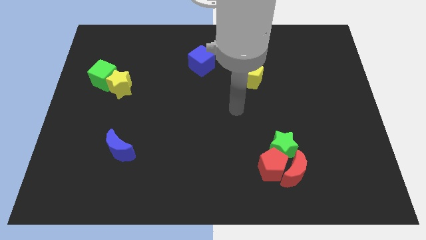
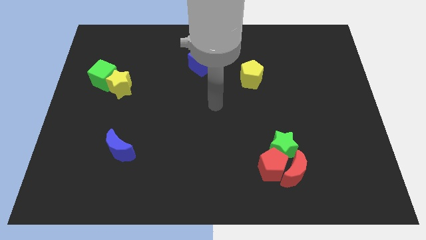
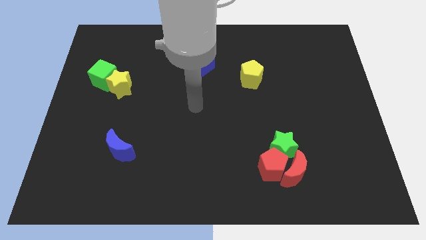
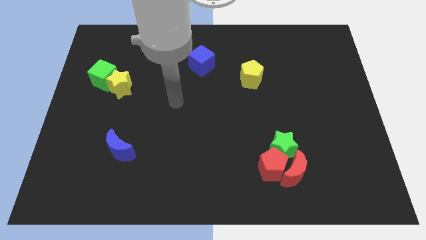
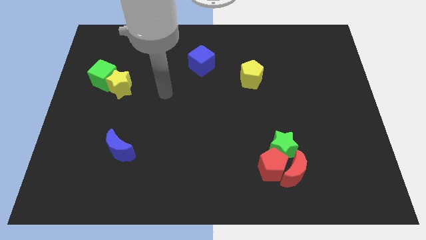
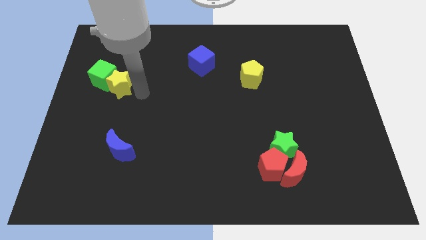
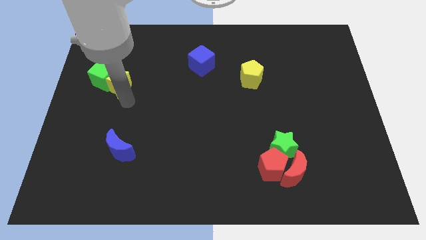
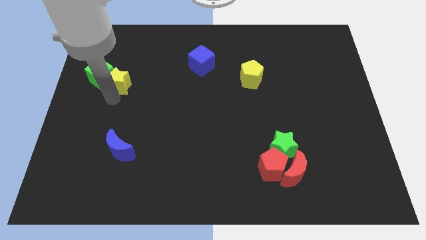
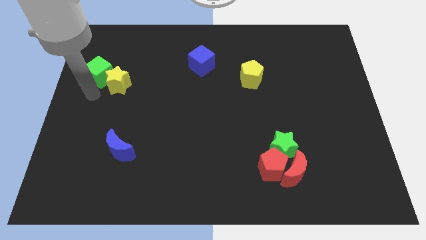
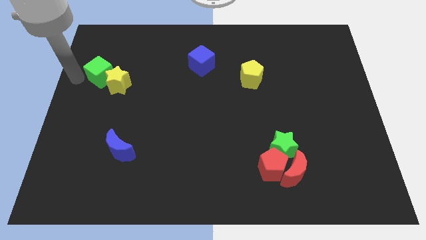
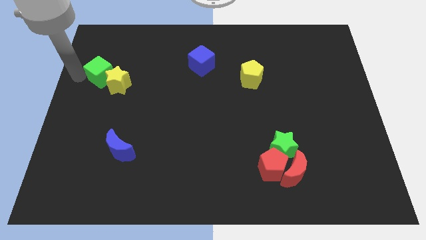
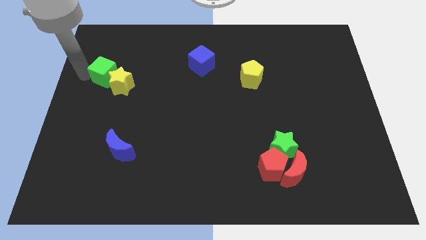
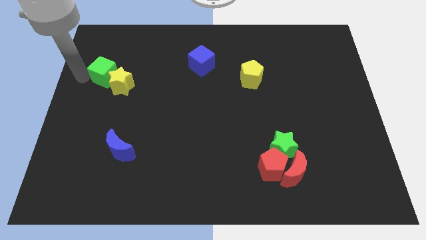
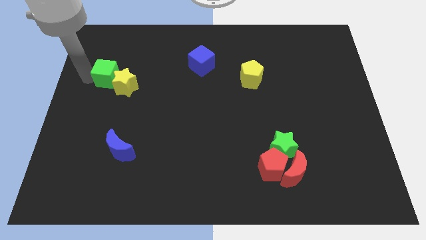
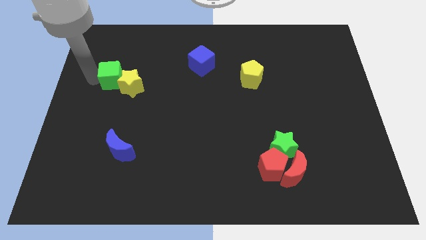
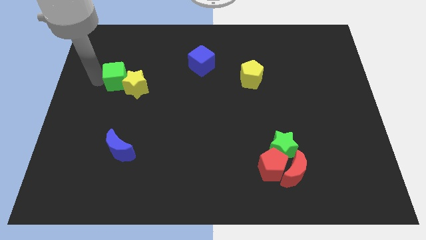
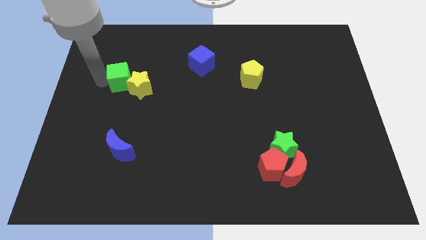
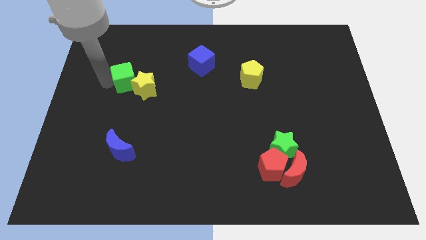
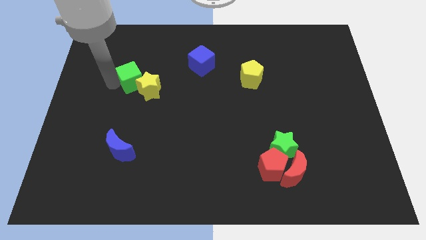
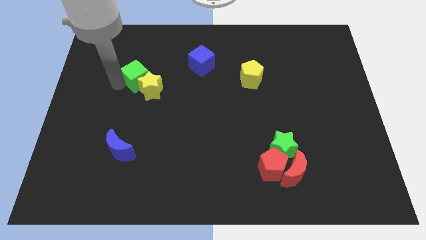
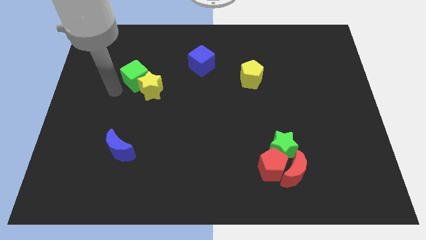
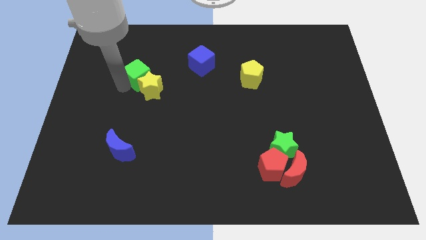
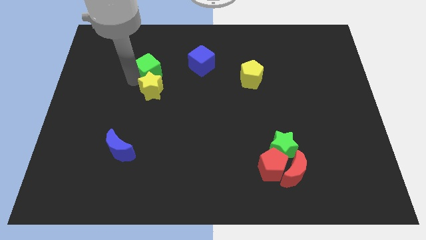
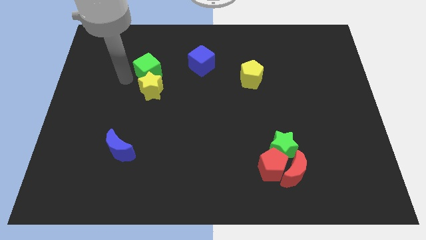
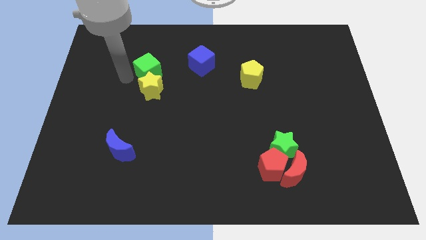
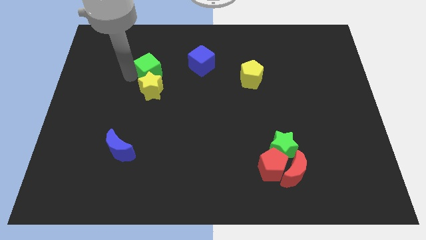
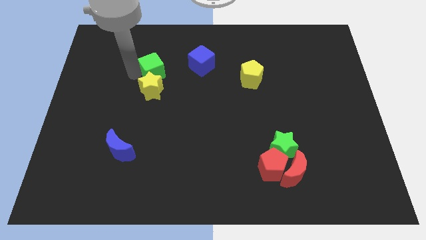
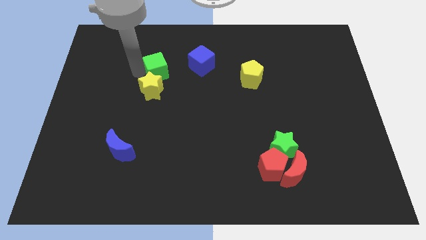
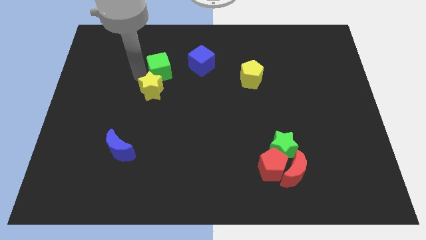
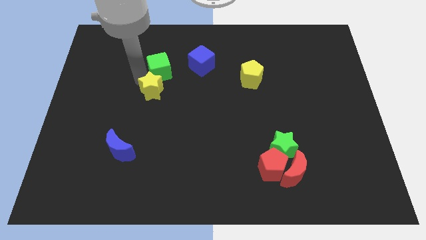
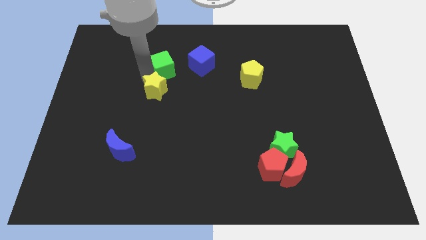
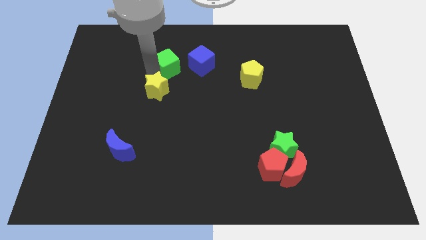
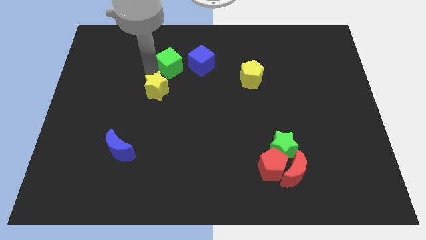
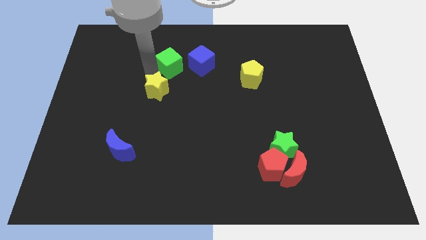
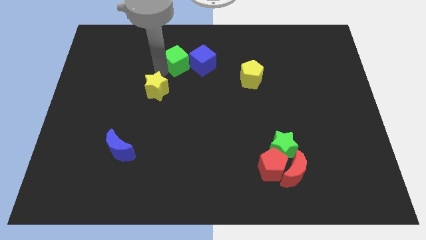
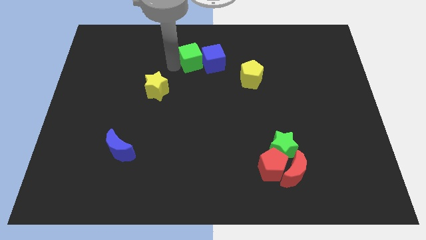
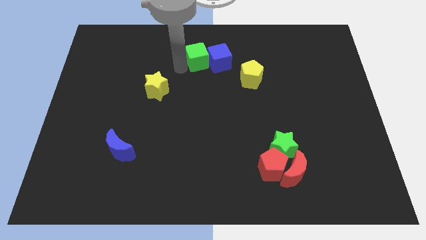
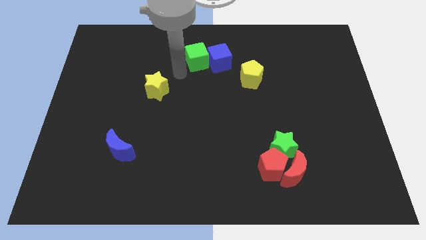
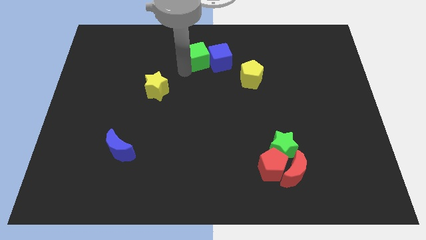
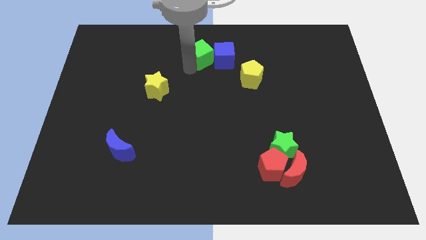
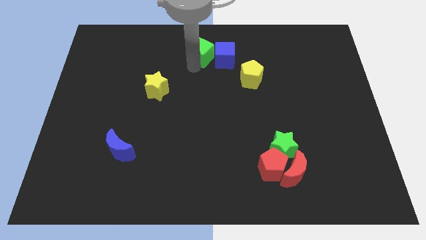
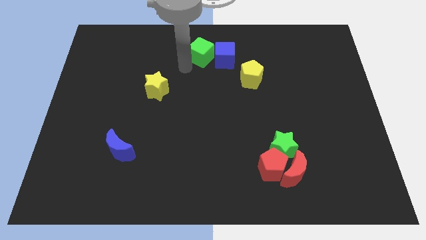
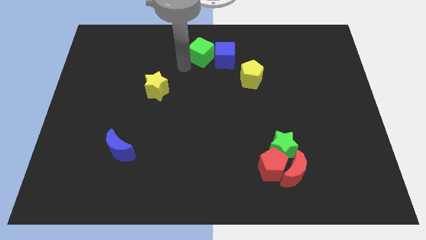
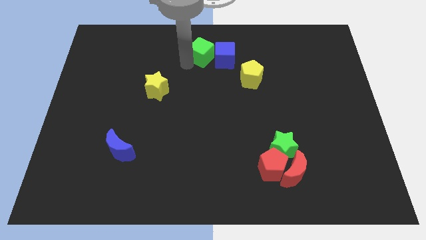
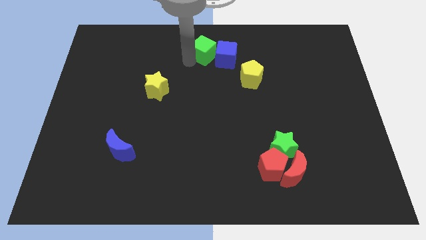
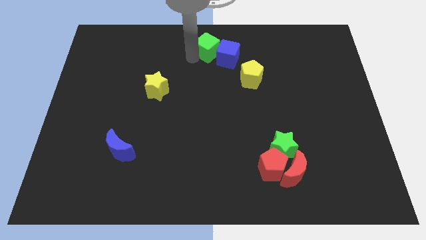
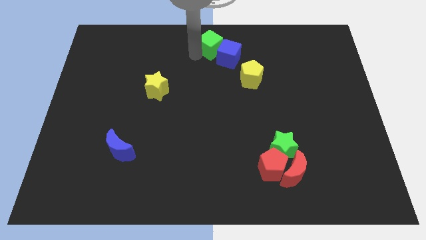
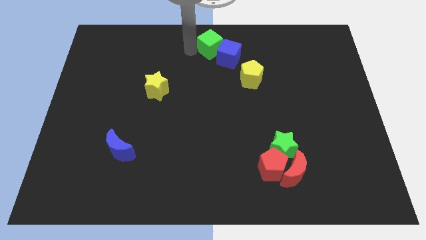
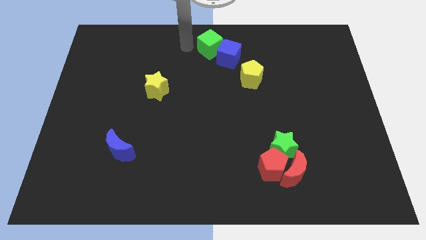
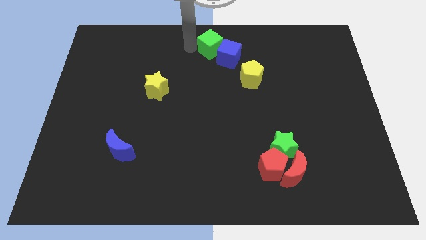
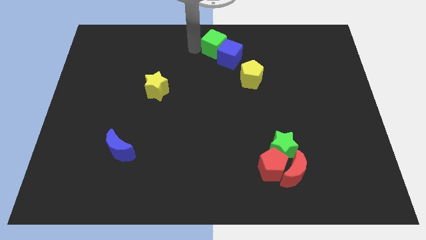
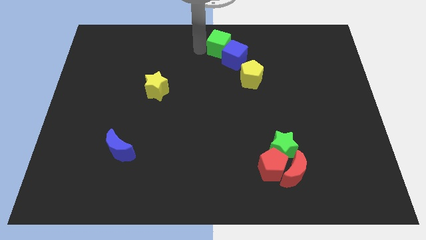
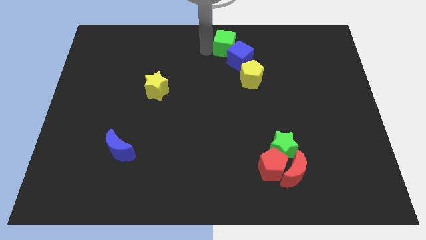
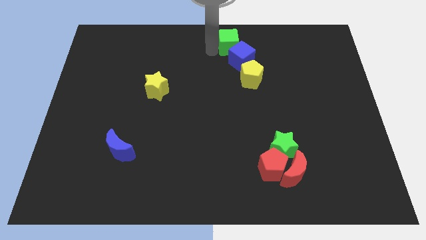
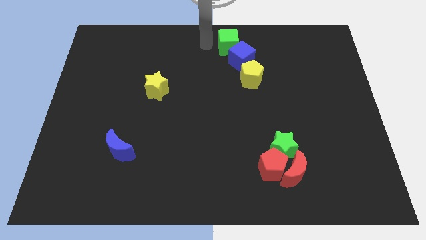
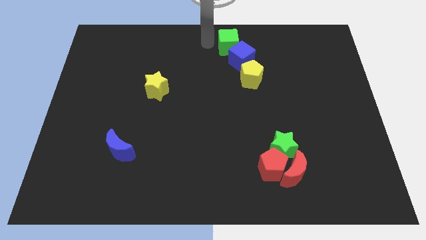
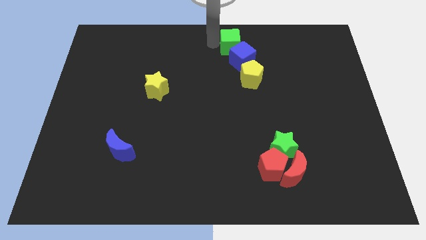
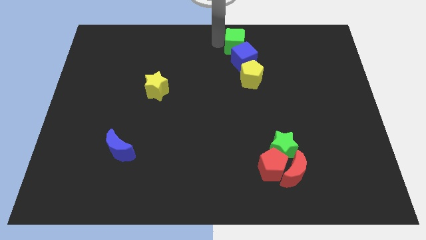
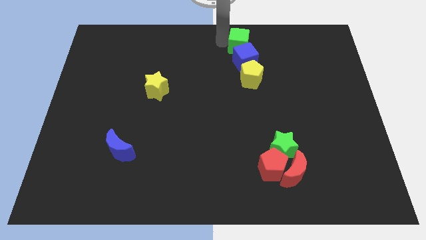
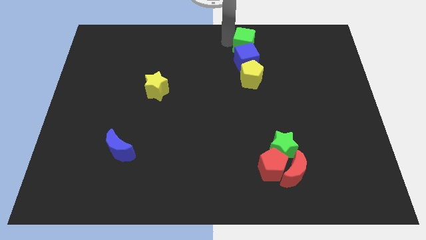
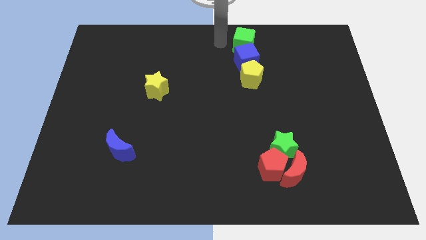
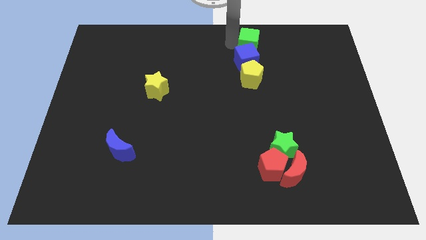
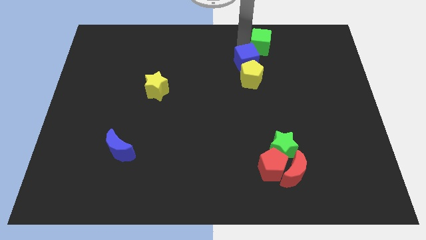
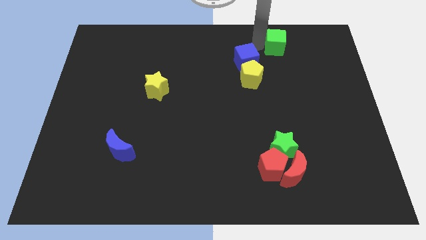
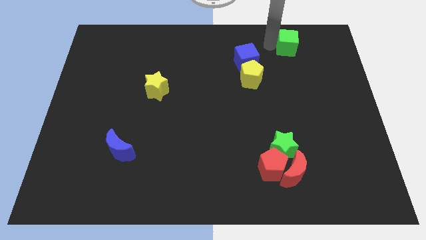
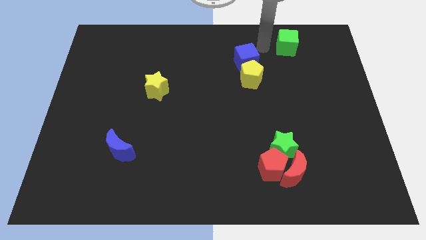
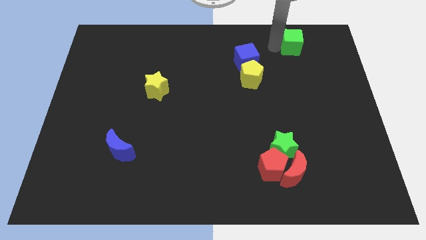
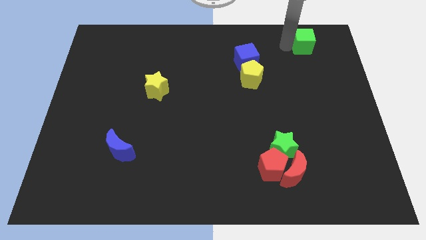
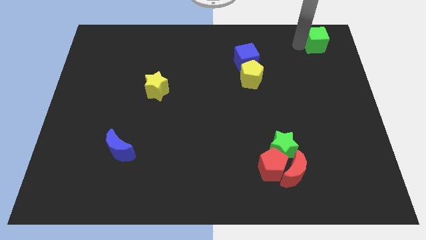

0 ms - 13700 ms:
slide the green cube to the top right corner

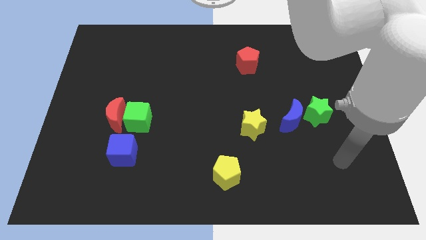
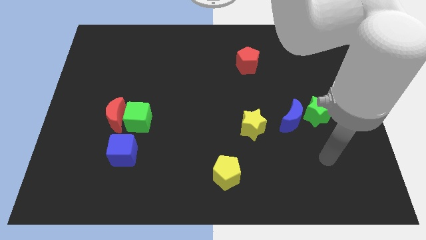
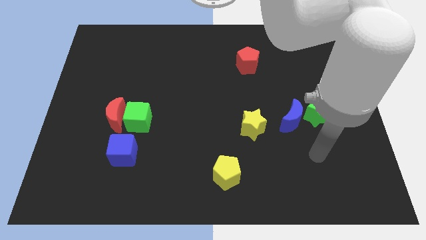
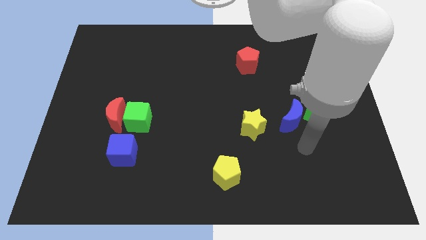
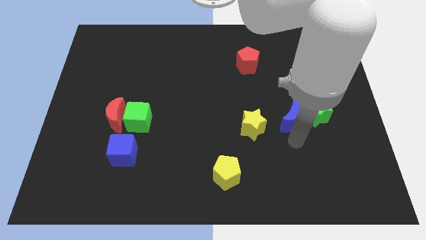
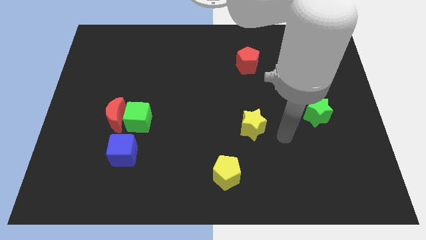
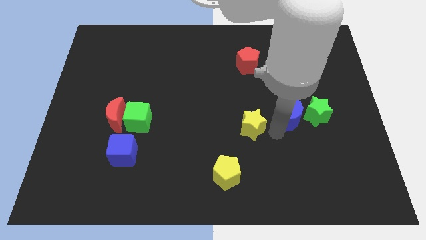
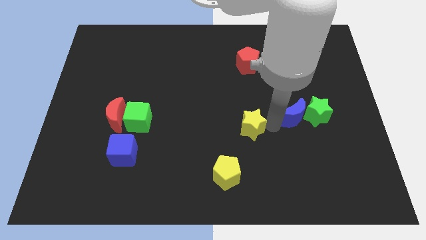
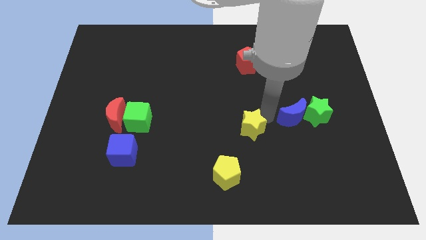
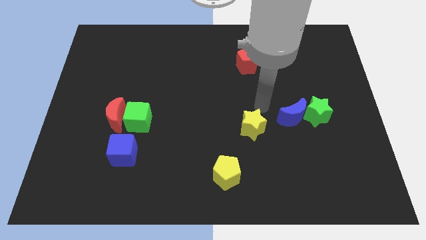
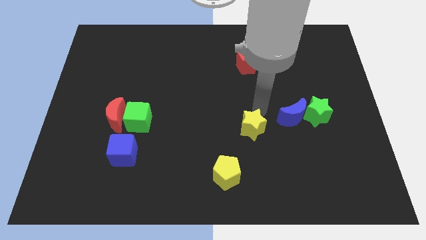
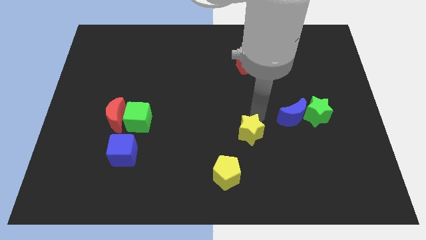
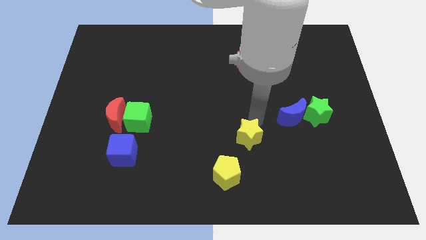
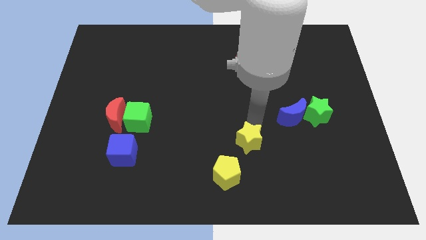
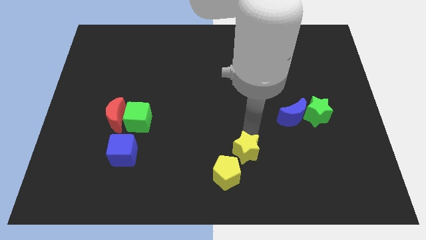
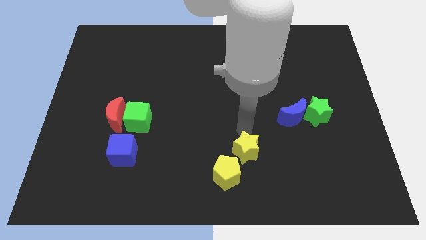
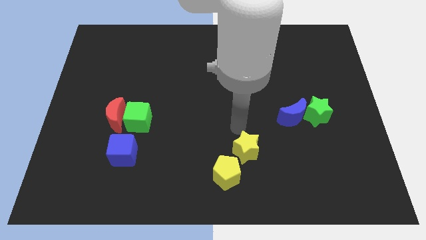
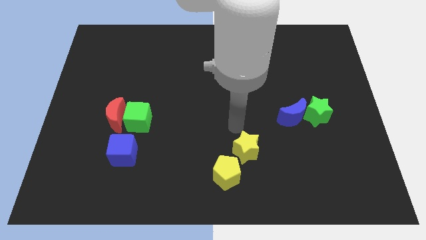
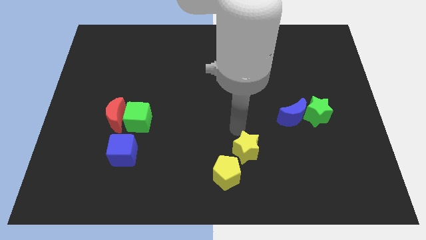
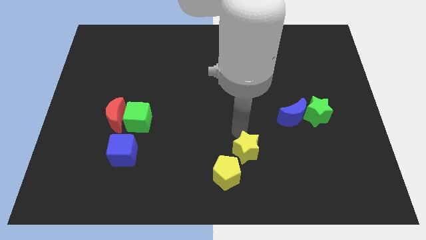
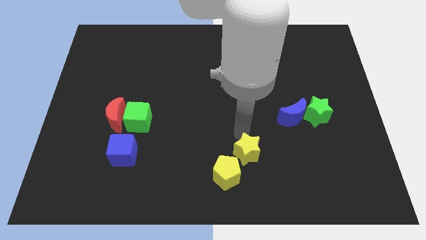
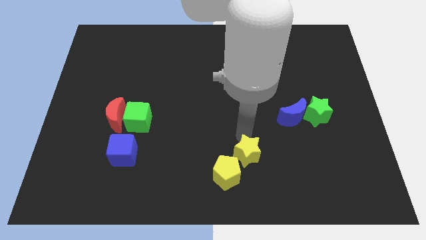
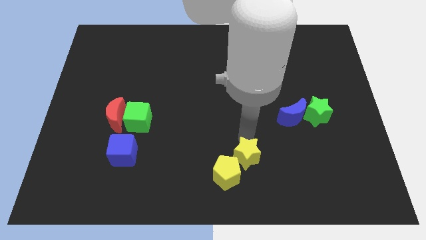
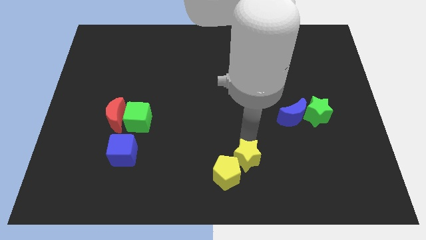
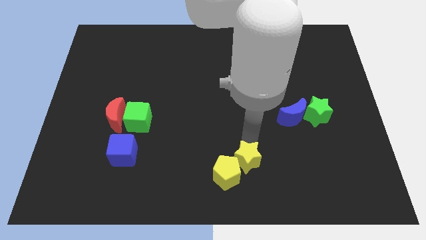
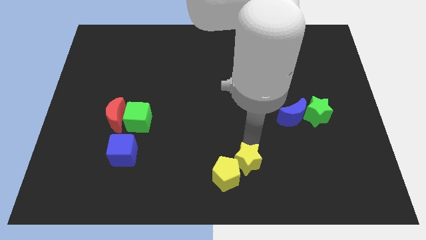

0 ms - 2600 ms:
put the yellow star to the bottom
